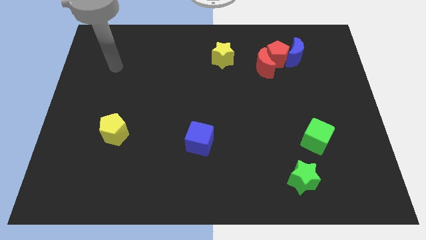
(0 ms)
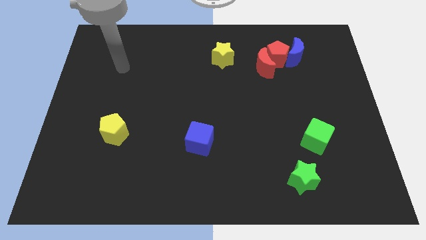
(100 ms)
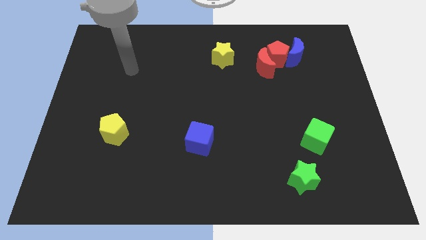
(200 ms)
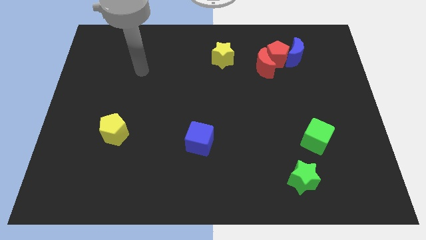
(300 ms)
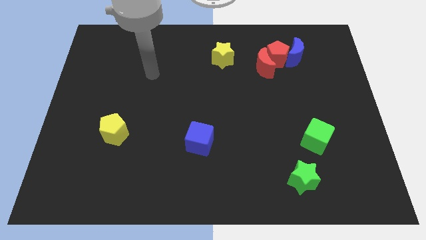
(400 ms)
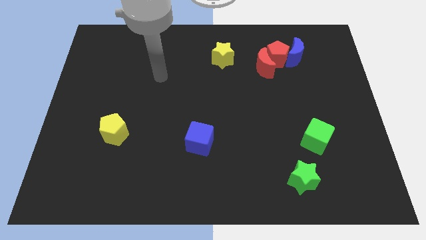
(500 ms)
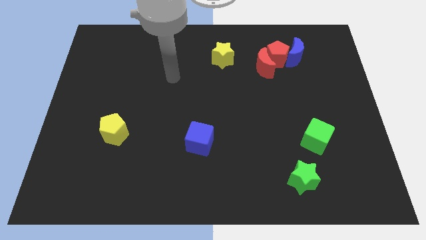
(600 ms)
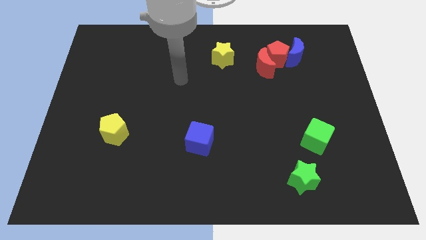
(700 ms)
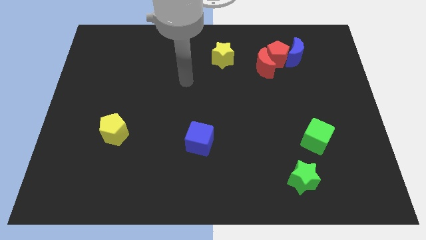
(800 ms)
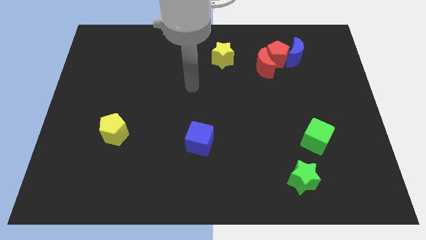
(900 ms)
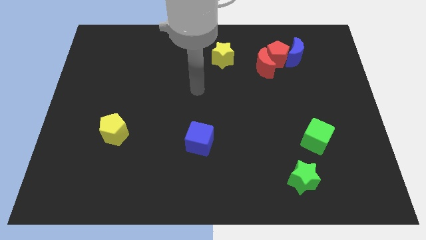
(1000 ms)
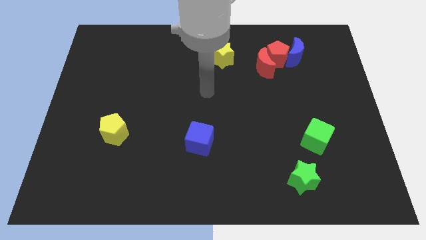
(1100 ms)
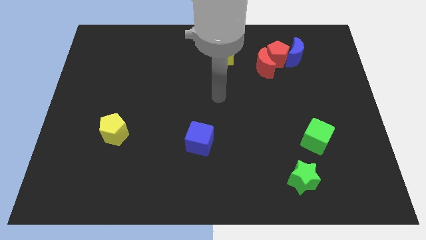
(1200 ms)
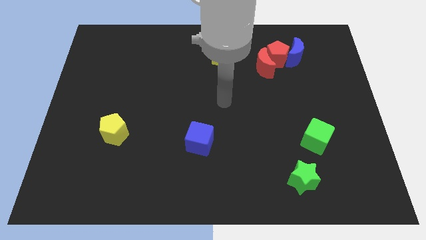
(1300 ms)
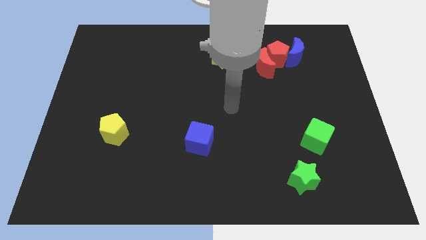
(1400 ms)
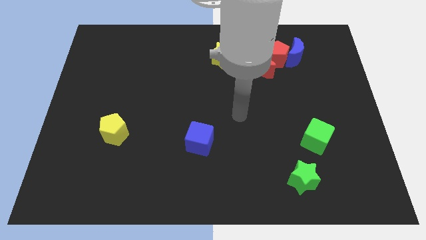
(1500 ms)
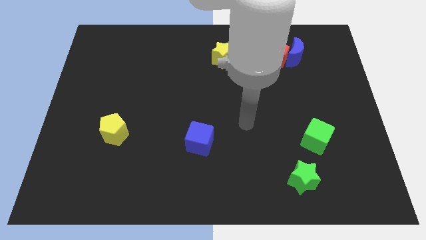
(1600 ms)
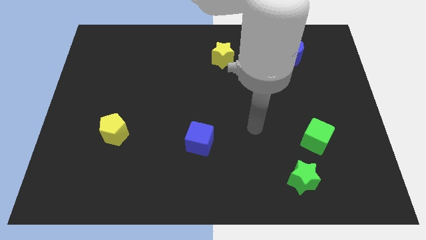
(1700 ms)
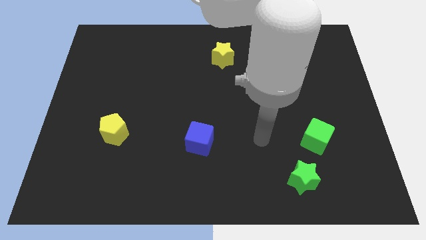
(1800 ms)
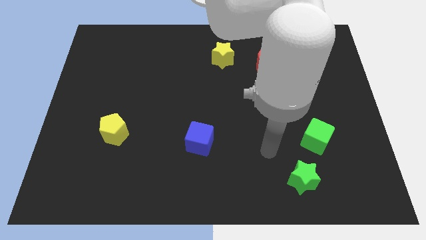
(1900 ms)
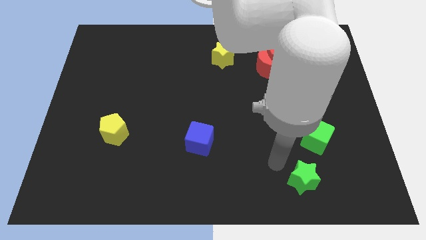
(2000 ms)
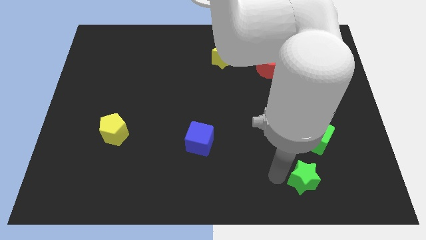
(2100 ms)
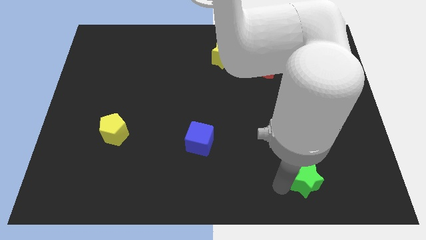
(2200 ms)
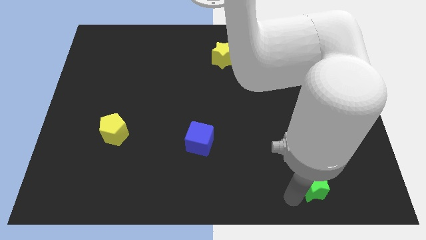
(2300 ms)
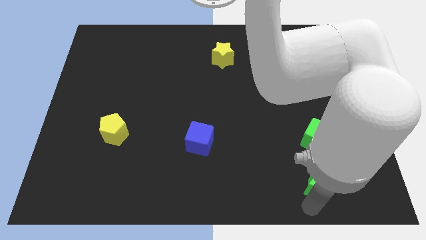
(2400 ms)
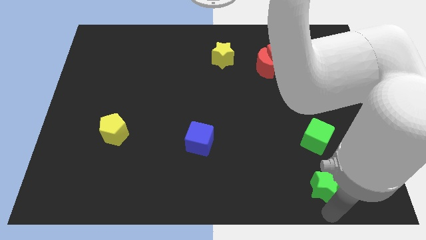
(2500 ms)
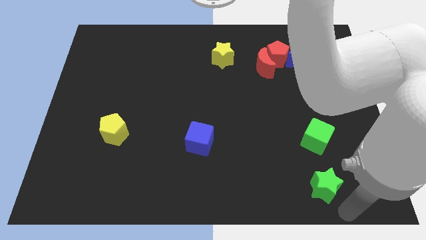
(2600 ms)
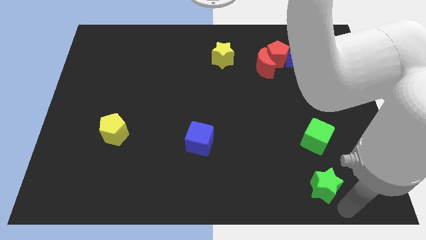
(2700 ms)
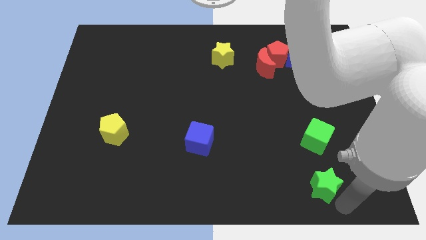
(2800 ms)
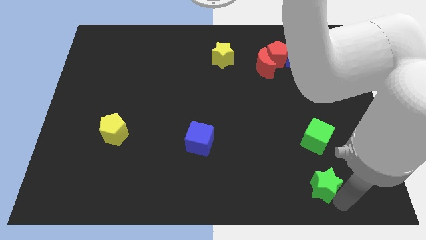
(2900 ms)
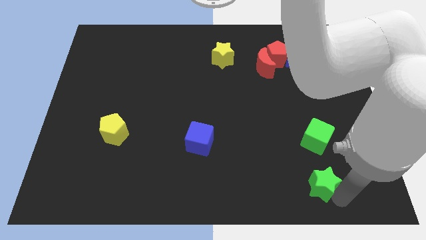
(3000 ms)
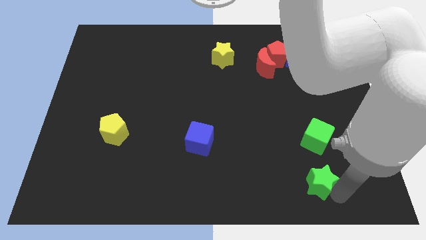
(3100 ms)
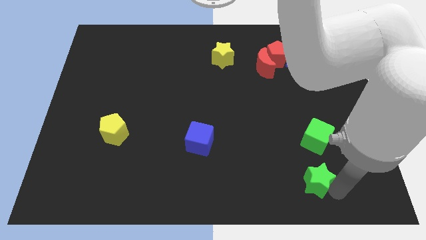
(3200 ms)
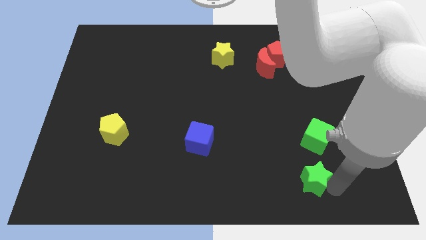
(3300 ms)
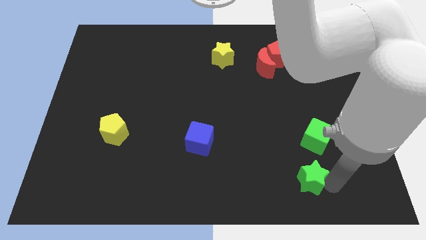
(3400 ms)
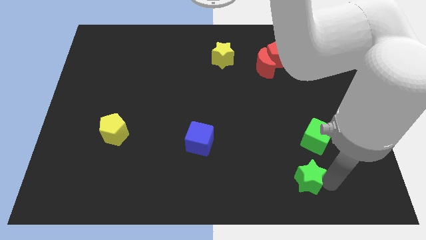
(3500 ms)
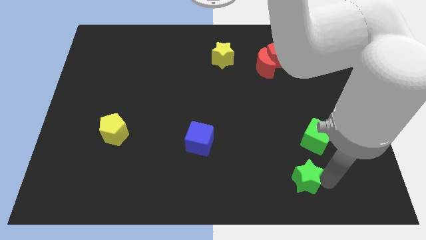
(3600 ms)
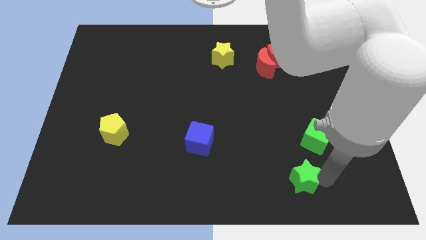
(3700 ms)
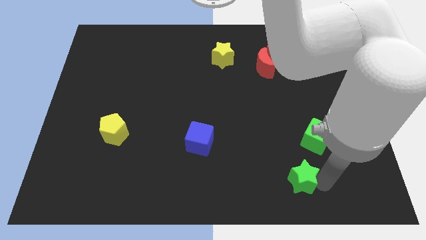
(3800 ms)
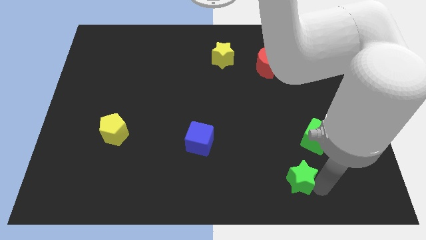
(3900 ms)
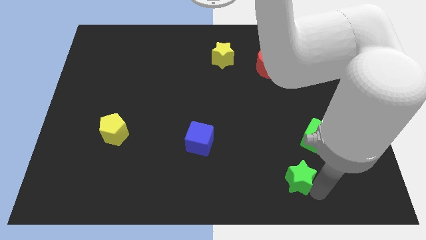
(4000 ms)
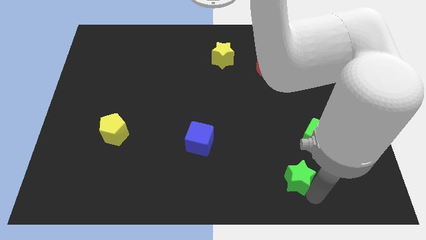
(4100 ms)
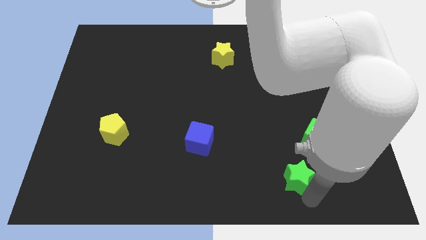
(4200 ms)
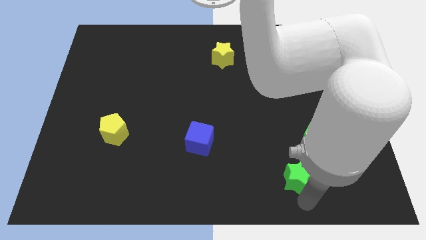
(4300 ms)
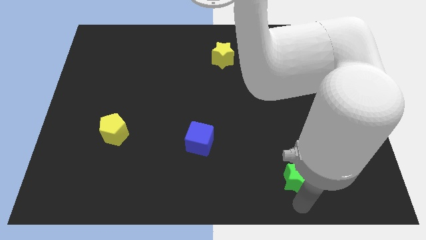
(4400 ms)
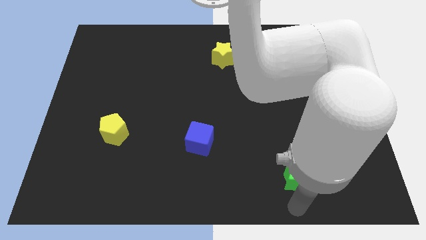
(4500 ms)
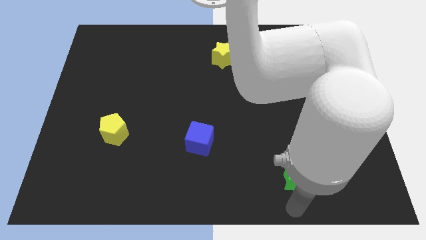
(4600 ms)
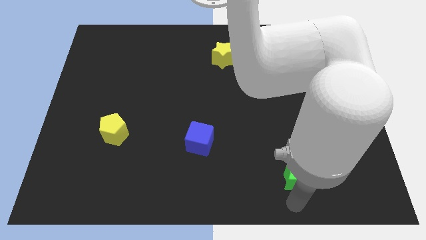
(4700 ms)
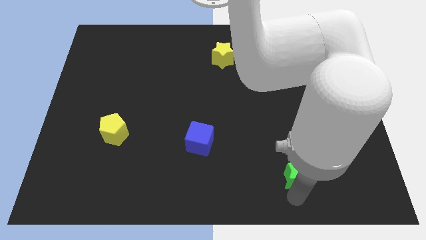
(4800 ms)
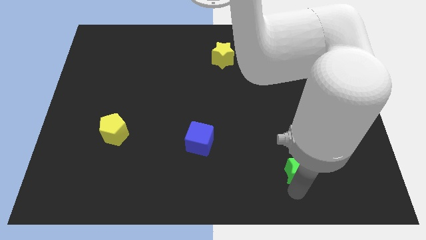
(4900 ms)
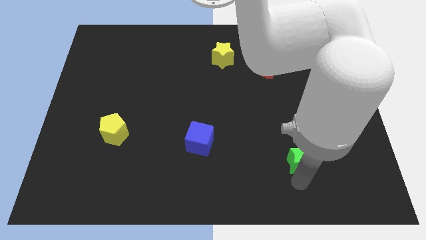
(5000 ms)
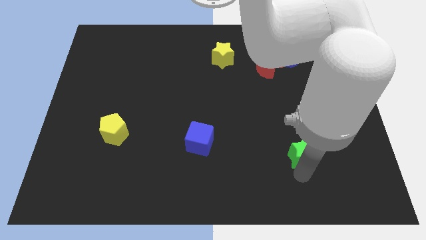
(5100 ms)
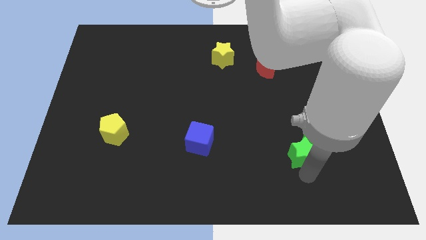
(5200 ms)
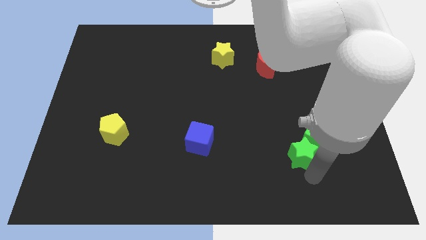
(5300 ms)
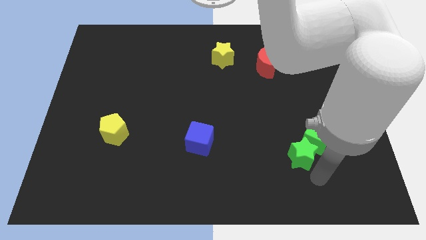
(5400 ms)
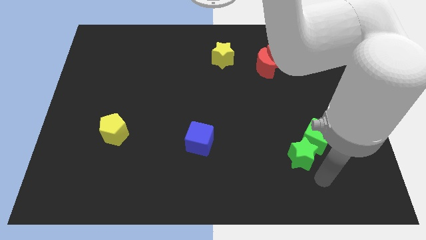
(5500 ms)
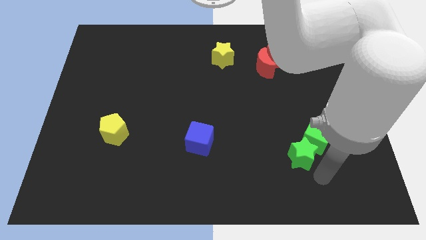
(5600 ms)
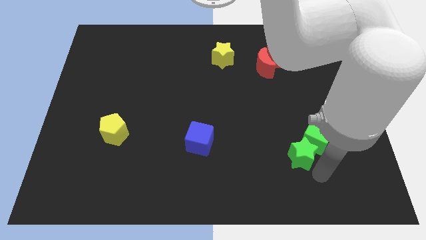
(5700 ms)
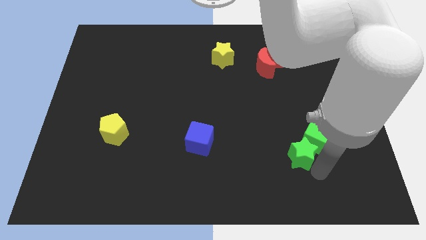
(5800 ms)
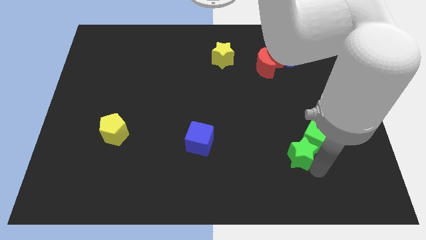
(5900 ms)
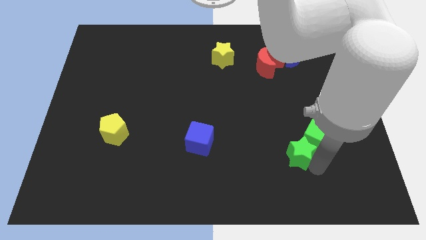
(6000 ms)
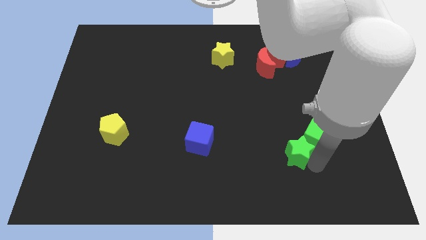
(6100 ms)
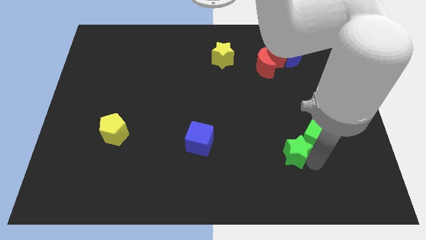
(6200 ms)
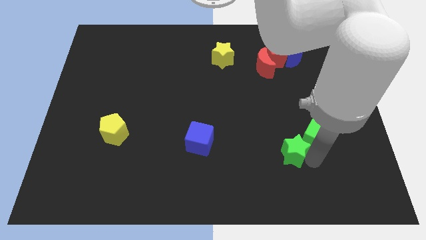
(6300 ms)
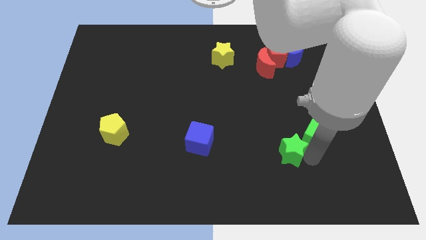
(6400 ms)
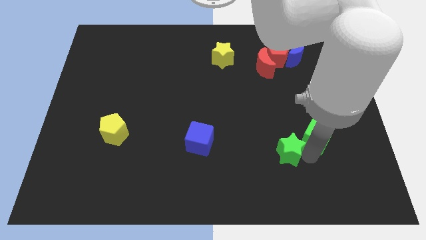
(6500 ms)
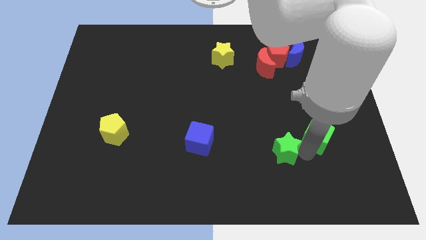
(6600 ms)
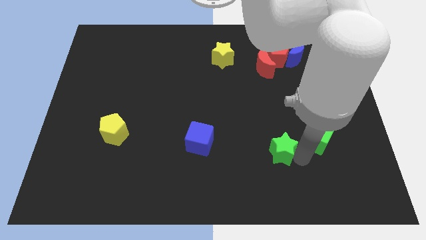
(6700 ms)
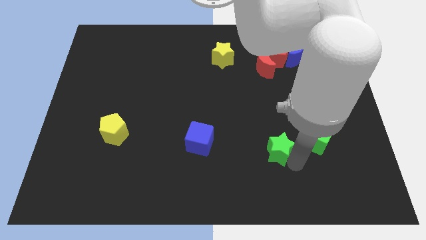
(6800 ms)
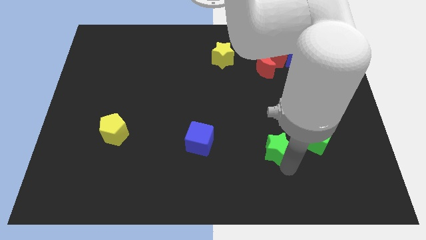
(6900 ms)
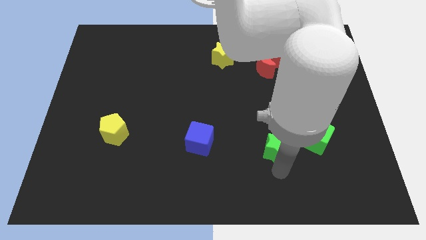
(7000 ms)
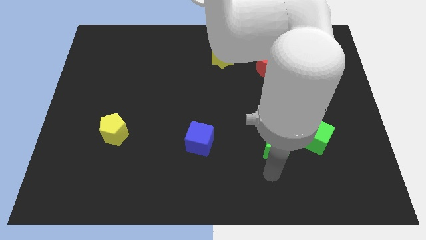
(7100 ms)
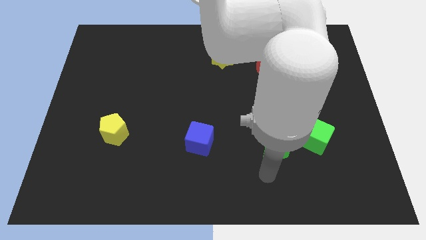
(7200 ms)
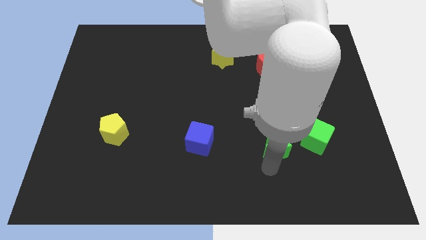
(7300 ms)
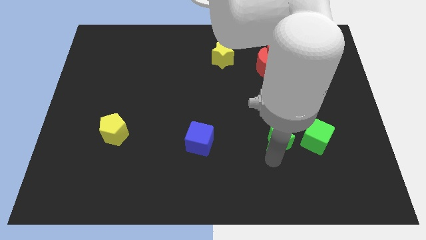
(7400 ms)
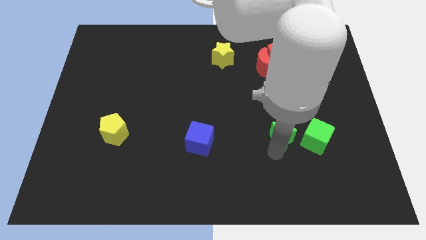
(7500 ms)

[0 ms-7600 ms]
put the green star diagonally up and to the left of the green cube
